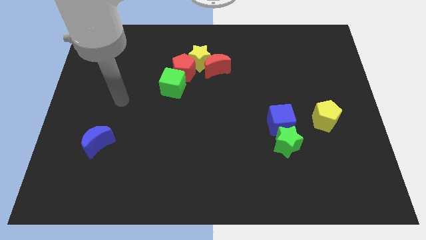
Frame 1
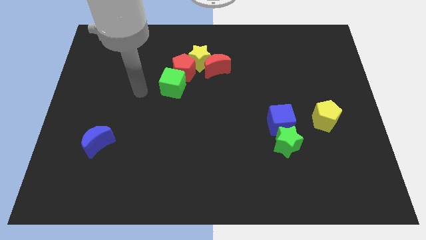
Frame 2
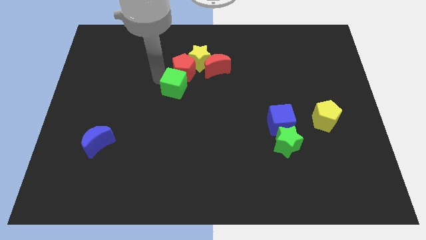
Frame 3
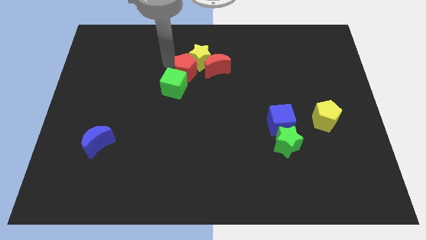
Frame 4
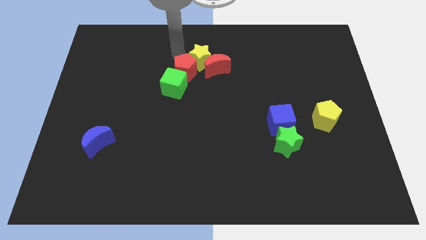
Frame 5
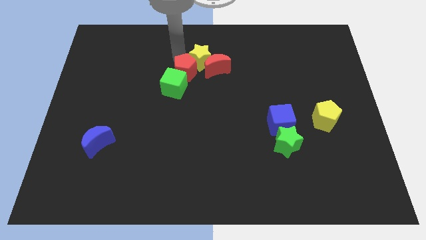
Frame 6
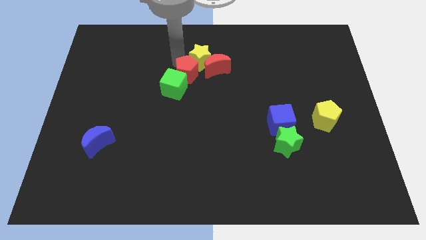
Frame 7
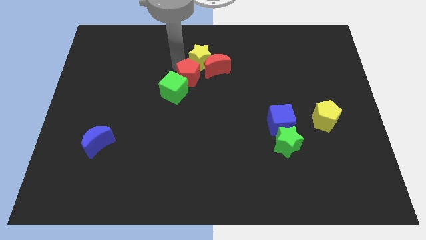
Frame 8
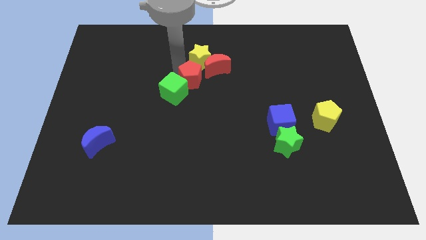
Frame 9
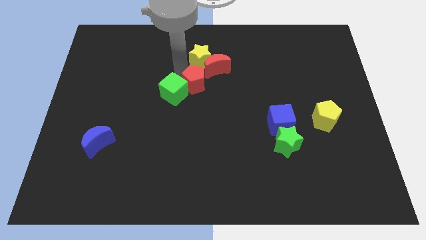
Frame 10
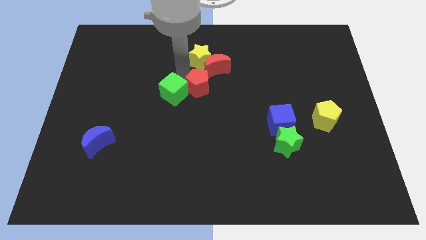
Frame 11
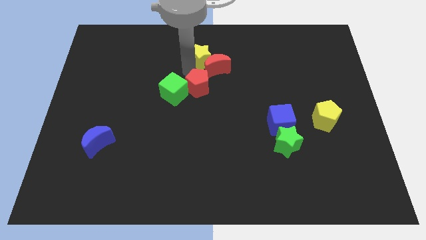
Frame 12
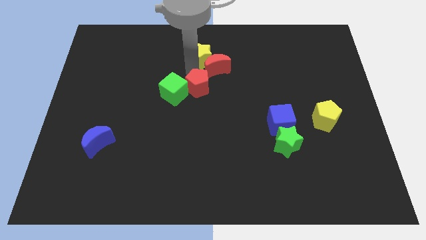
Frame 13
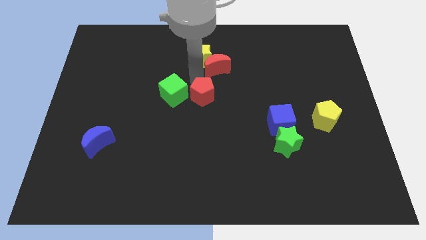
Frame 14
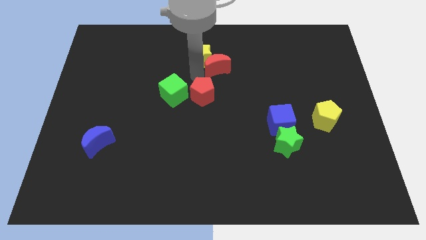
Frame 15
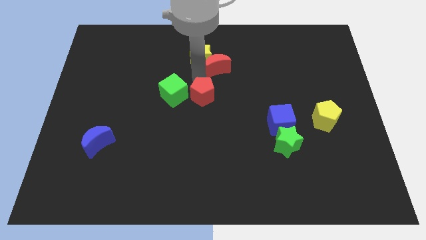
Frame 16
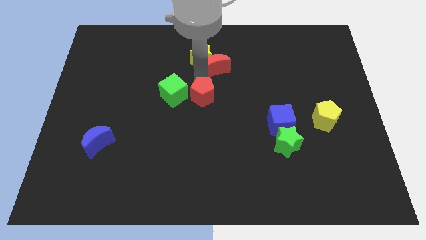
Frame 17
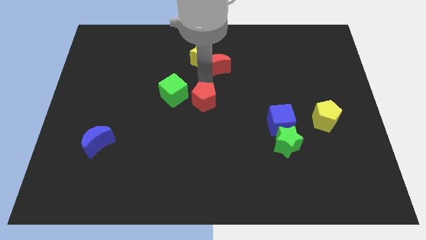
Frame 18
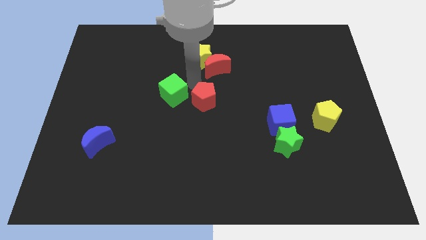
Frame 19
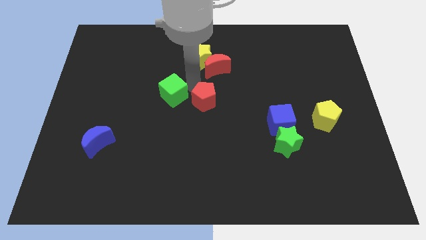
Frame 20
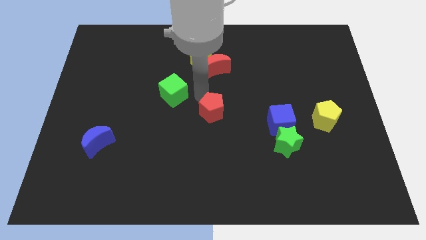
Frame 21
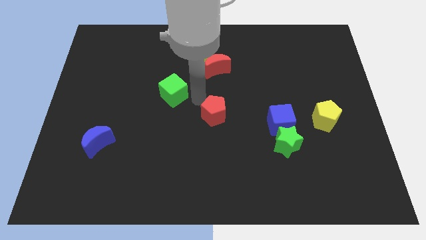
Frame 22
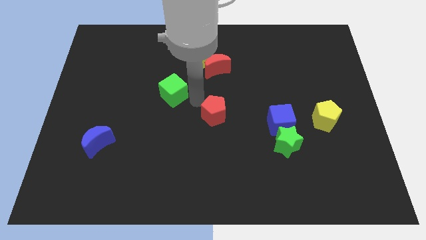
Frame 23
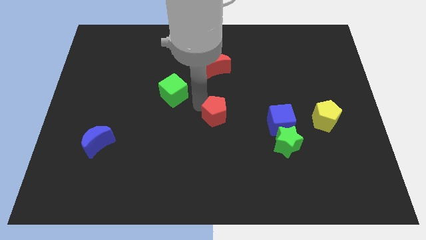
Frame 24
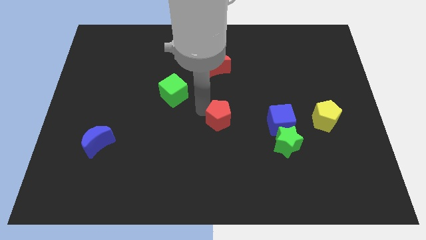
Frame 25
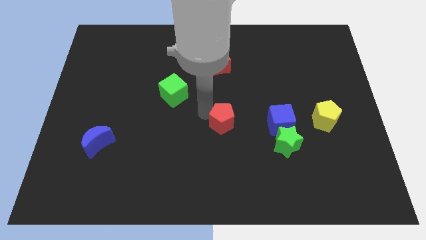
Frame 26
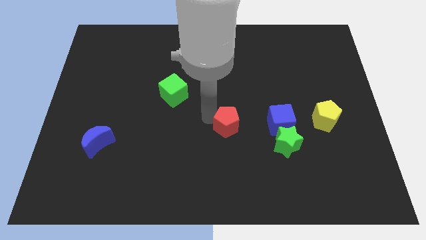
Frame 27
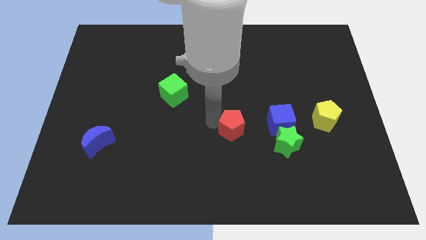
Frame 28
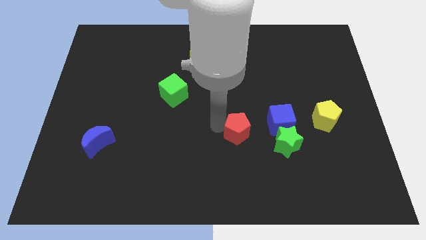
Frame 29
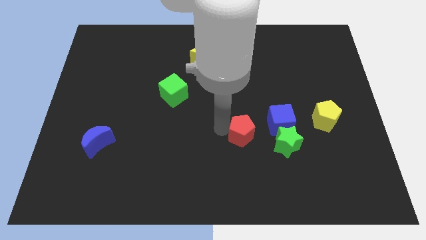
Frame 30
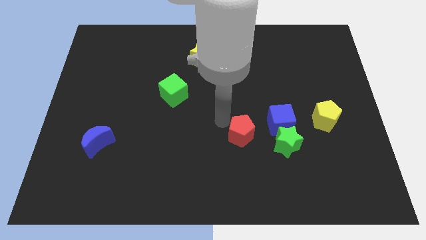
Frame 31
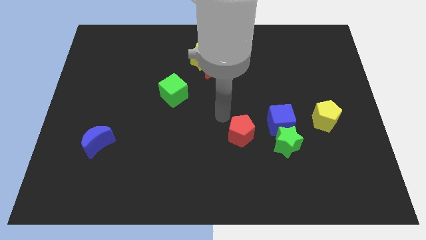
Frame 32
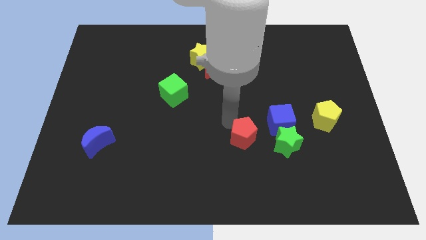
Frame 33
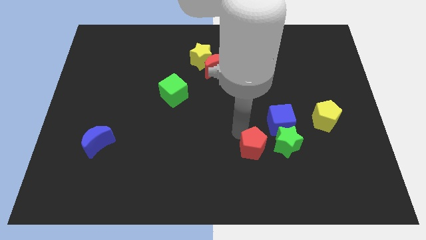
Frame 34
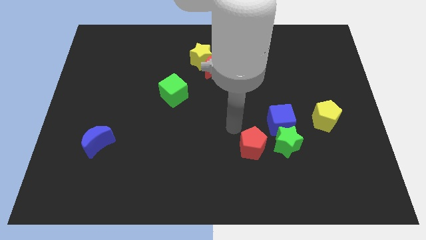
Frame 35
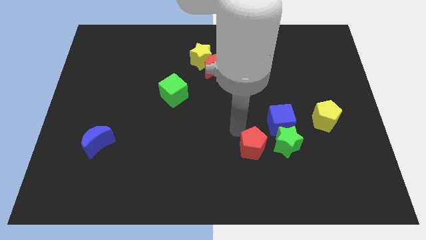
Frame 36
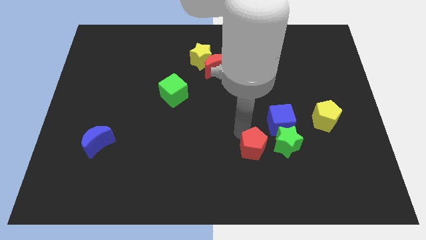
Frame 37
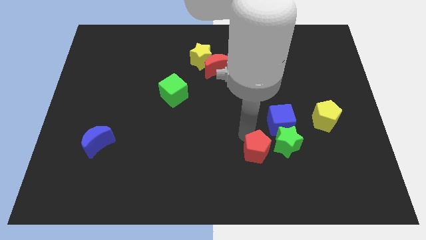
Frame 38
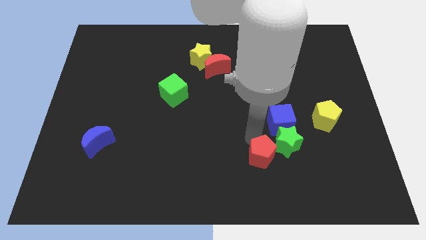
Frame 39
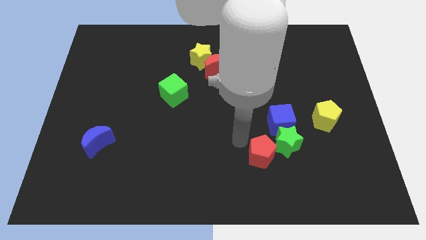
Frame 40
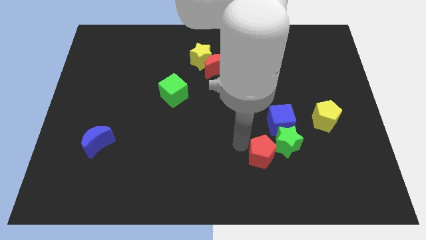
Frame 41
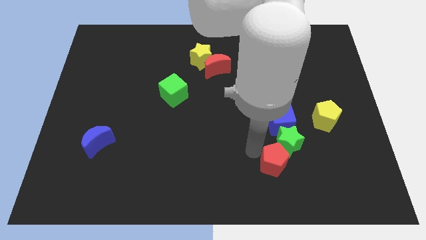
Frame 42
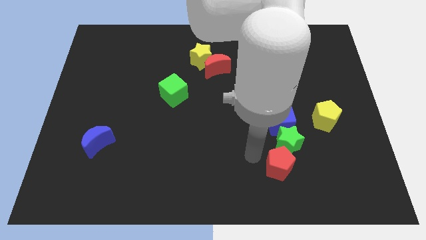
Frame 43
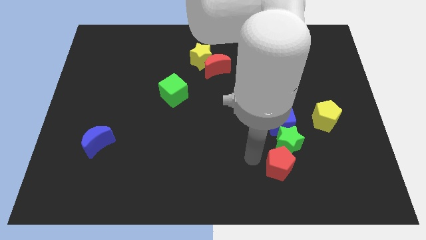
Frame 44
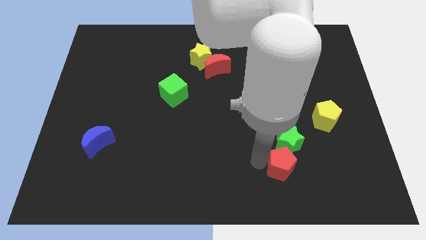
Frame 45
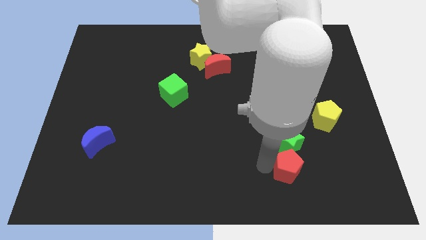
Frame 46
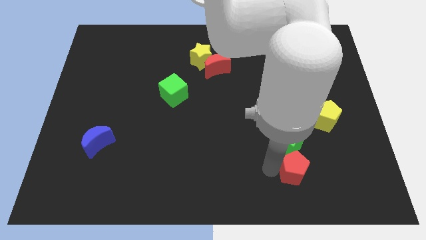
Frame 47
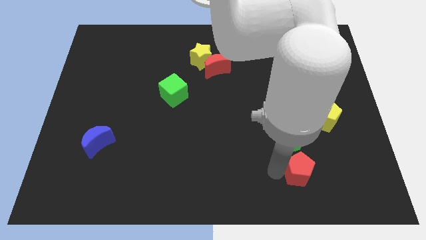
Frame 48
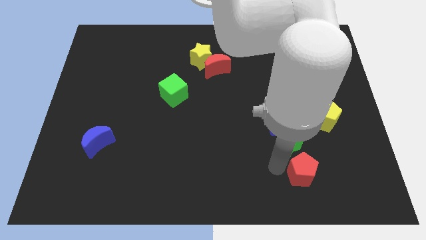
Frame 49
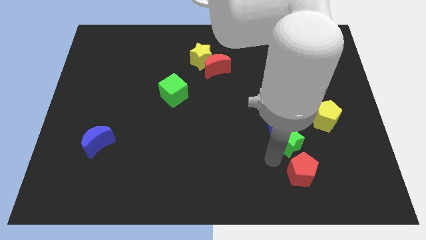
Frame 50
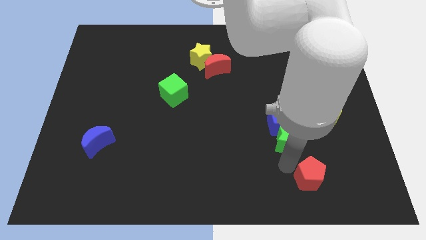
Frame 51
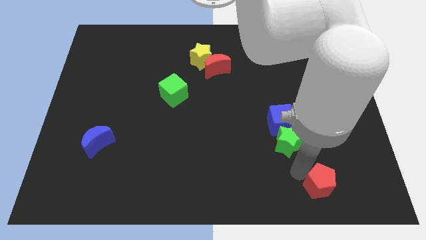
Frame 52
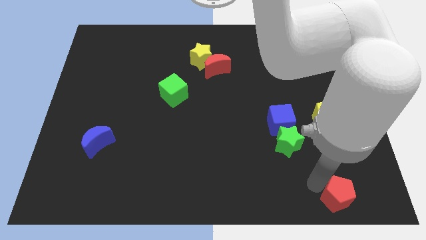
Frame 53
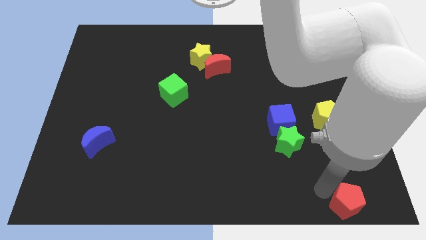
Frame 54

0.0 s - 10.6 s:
move the red pentagon to the bottom right of the board
